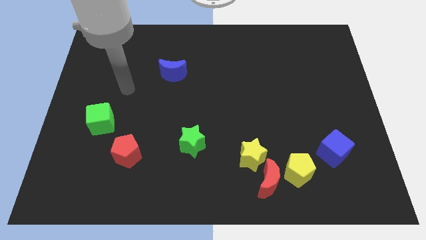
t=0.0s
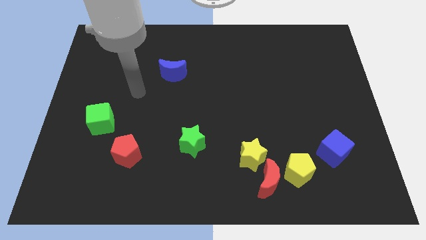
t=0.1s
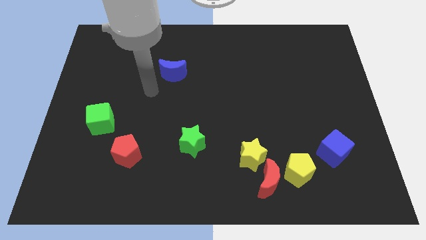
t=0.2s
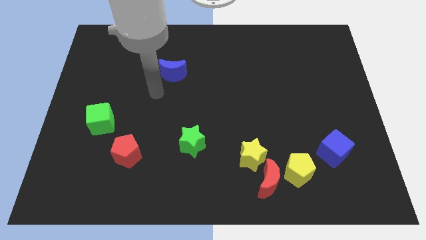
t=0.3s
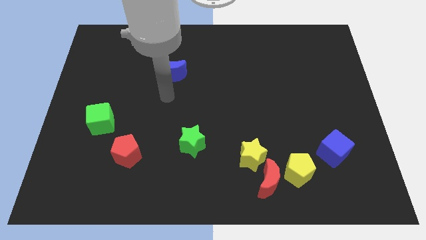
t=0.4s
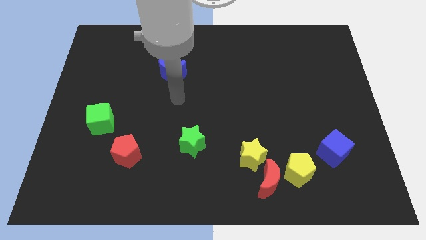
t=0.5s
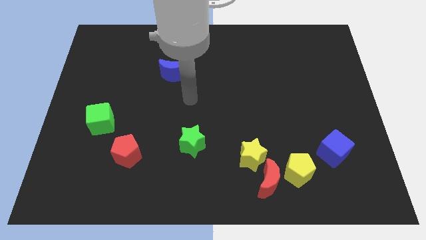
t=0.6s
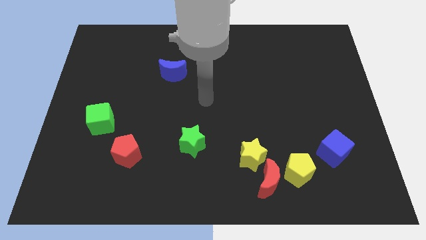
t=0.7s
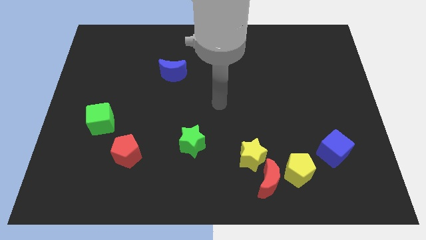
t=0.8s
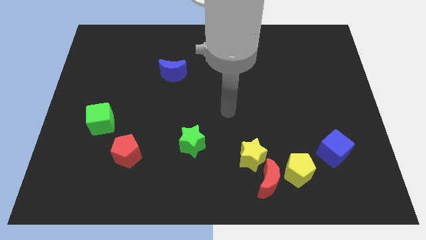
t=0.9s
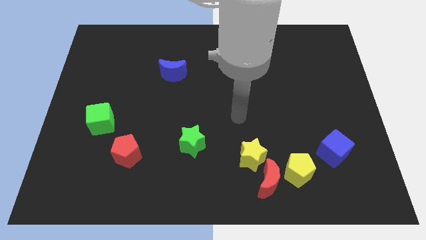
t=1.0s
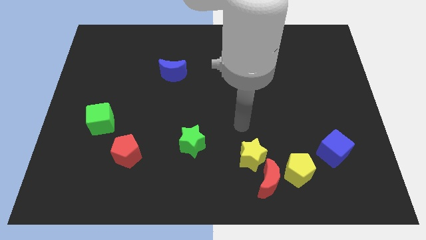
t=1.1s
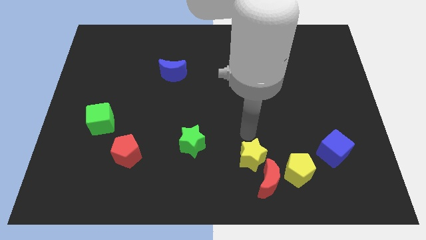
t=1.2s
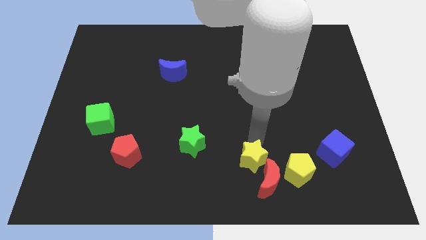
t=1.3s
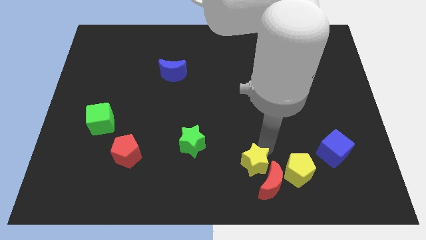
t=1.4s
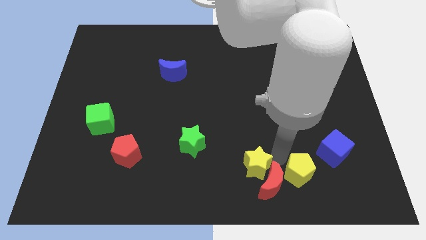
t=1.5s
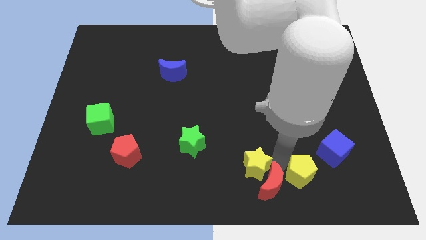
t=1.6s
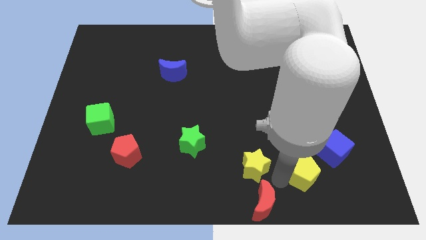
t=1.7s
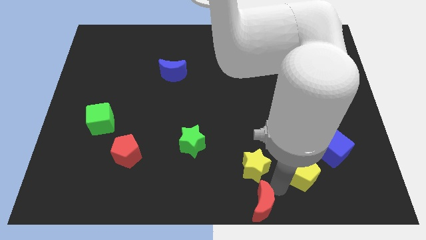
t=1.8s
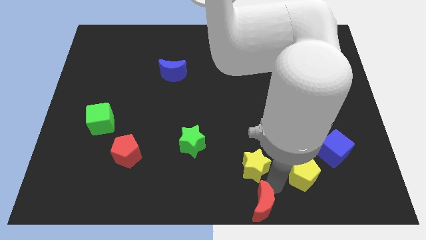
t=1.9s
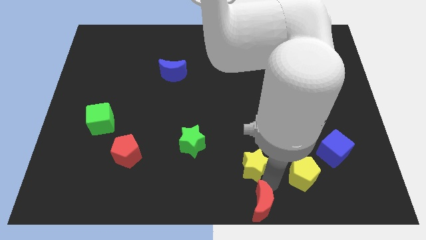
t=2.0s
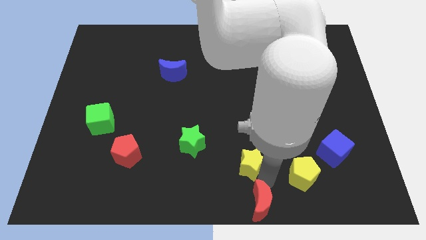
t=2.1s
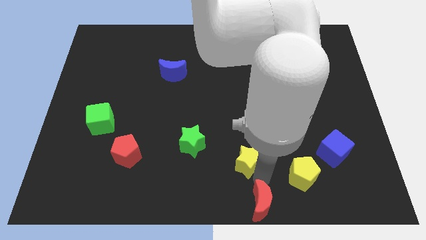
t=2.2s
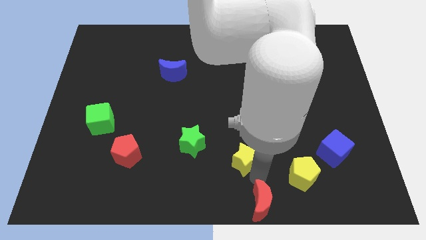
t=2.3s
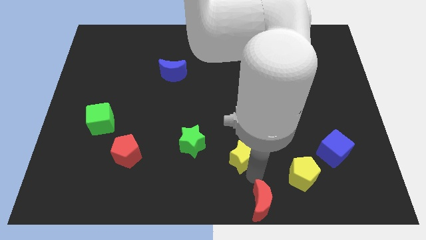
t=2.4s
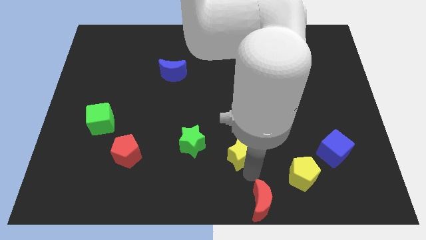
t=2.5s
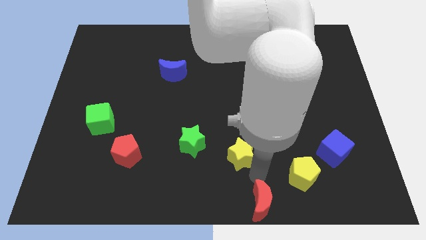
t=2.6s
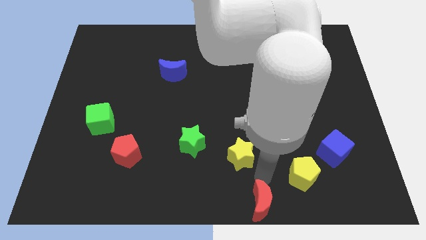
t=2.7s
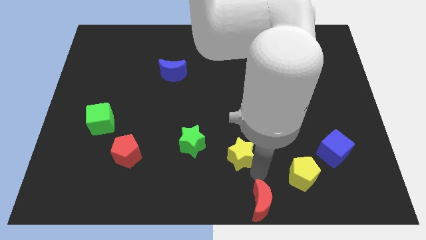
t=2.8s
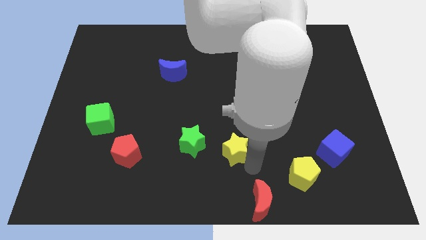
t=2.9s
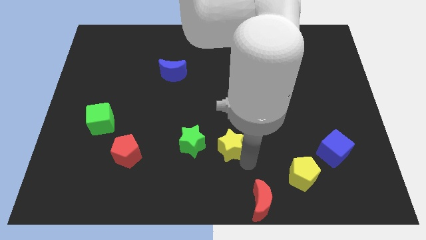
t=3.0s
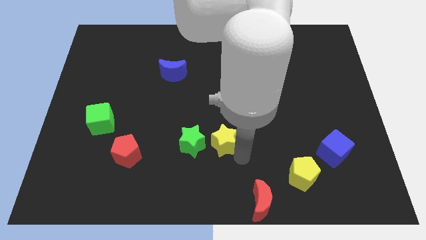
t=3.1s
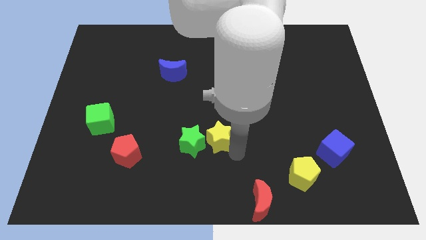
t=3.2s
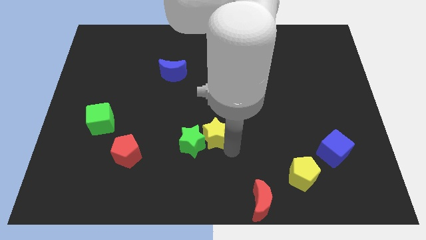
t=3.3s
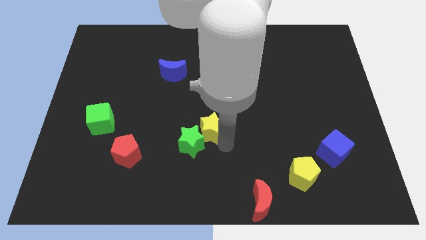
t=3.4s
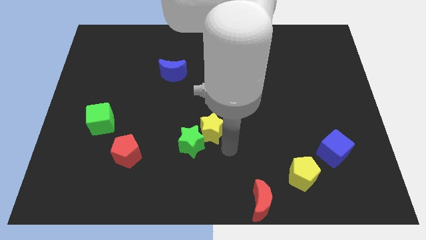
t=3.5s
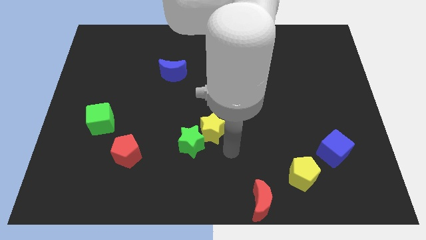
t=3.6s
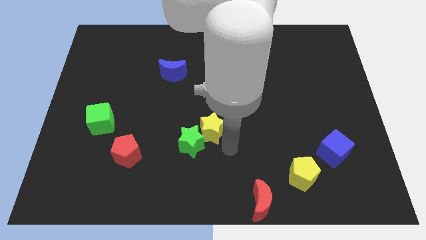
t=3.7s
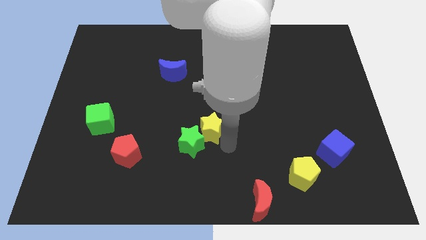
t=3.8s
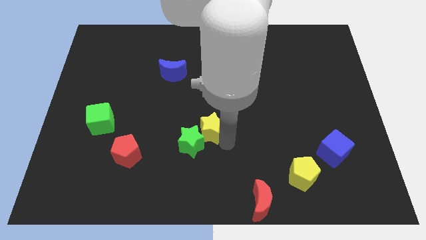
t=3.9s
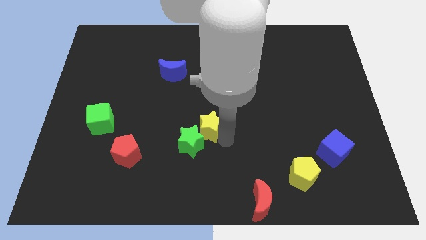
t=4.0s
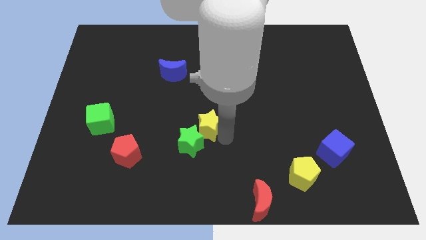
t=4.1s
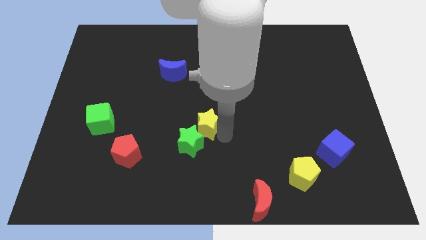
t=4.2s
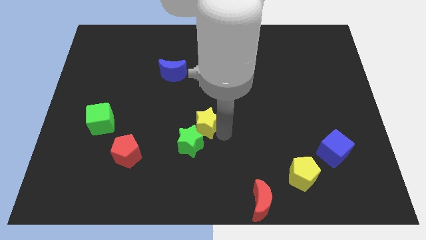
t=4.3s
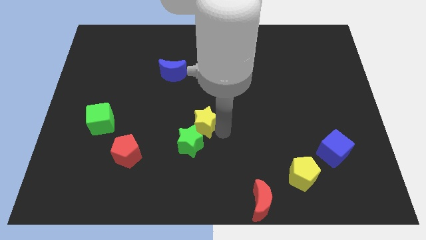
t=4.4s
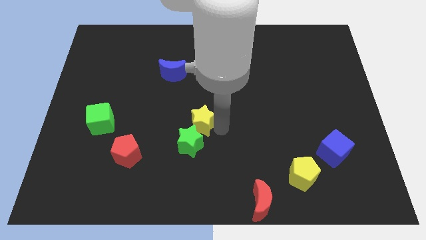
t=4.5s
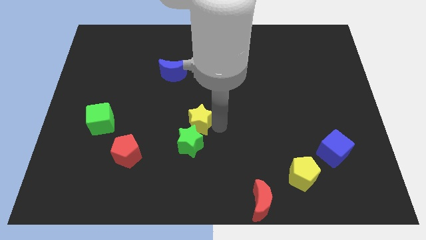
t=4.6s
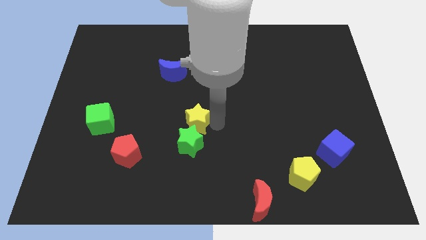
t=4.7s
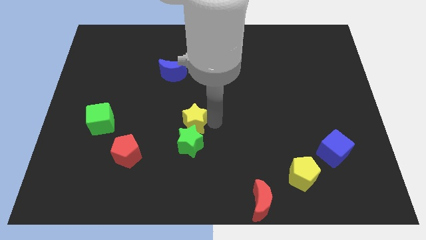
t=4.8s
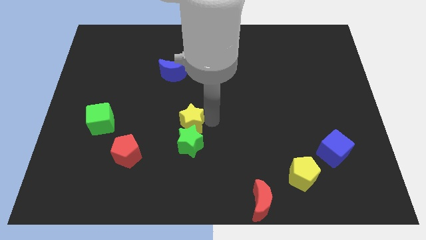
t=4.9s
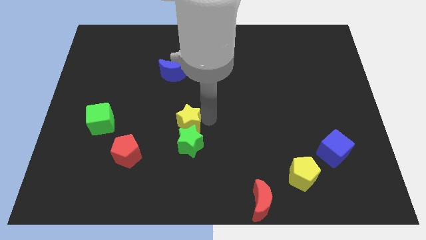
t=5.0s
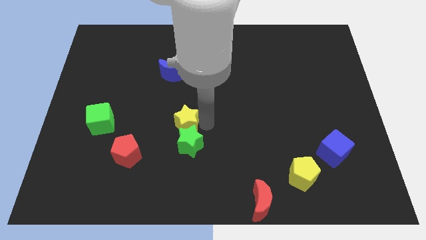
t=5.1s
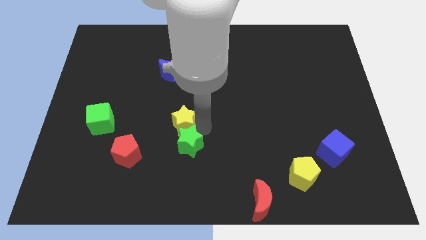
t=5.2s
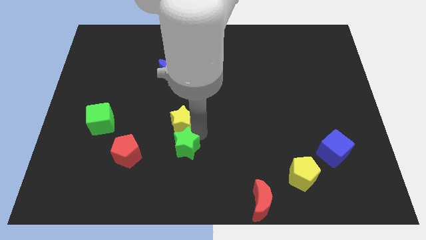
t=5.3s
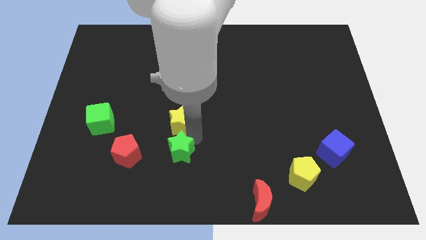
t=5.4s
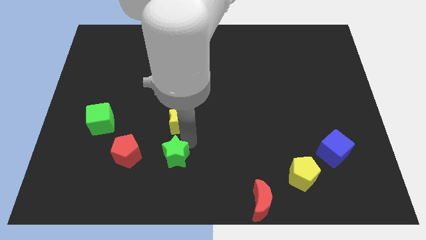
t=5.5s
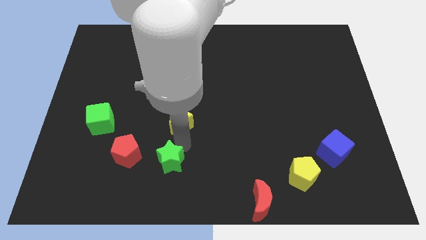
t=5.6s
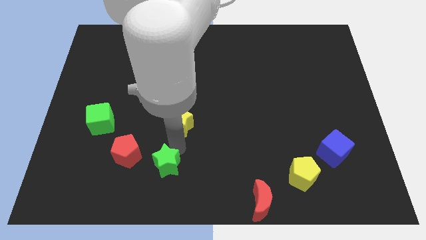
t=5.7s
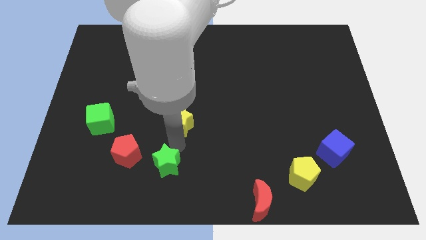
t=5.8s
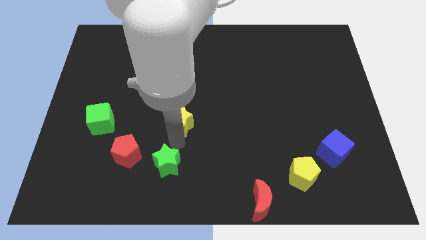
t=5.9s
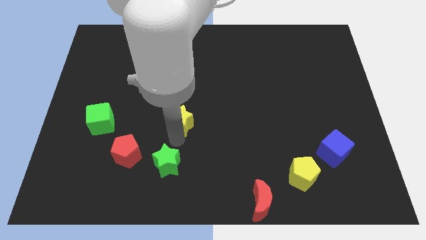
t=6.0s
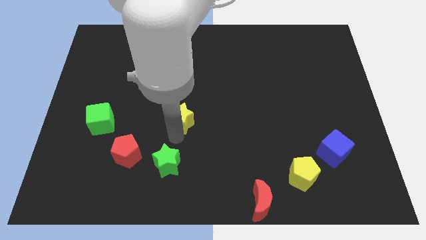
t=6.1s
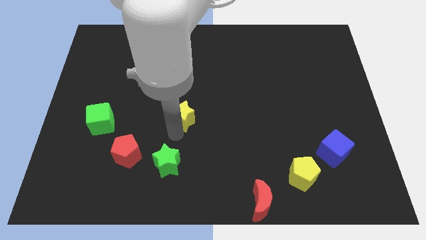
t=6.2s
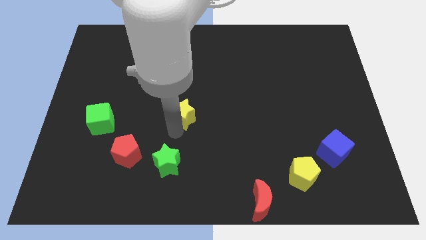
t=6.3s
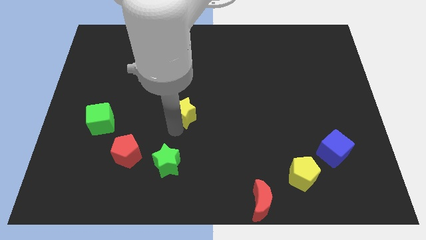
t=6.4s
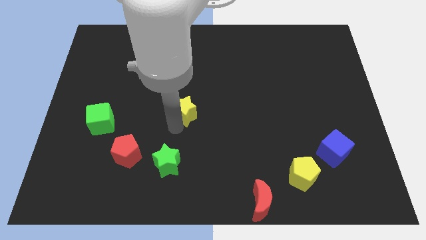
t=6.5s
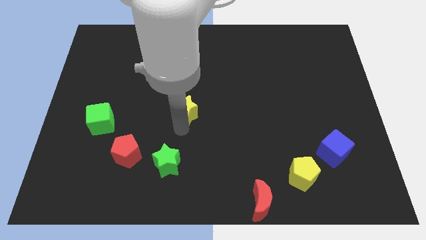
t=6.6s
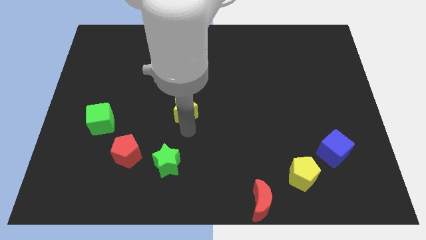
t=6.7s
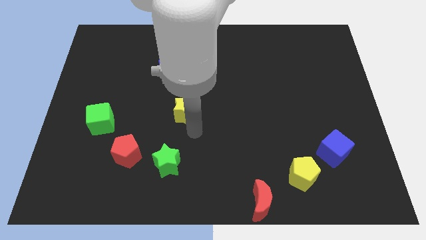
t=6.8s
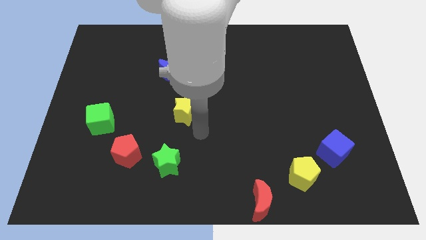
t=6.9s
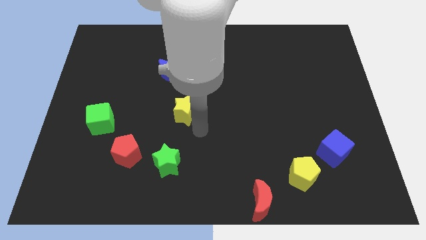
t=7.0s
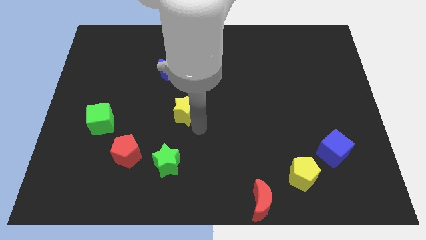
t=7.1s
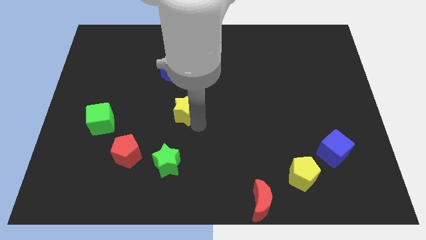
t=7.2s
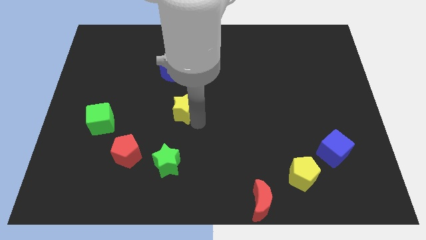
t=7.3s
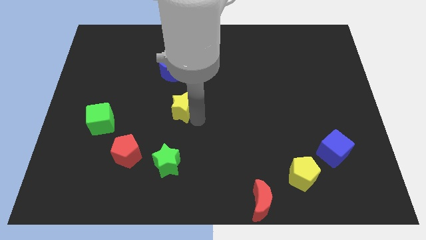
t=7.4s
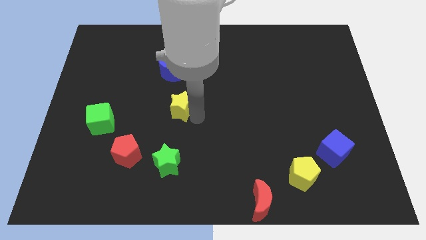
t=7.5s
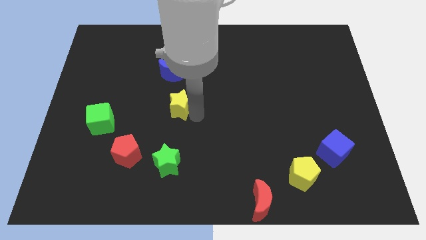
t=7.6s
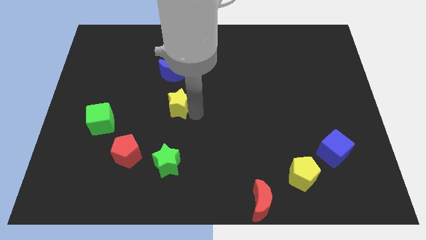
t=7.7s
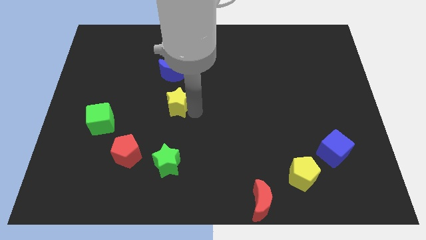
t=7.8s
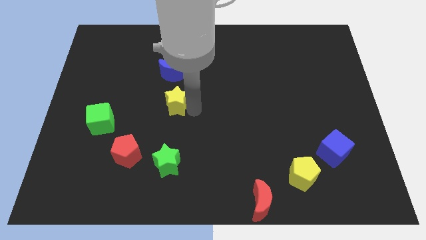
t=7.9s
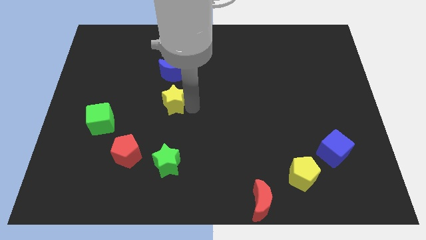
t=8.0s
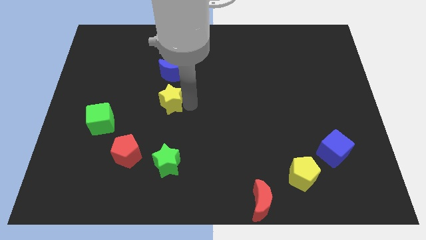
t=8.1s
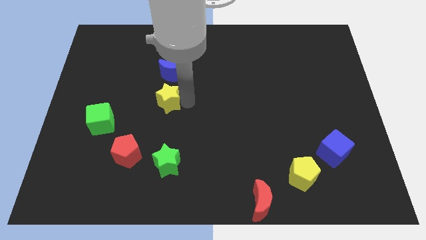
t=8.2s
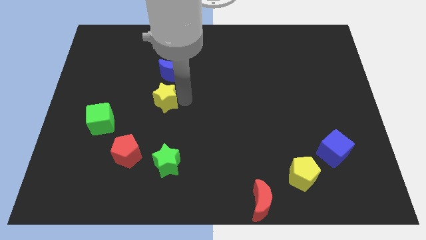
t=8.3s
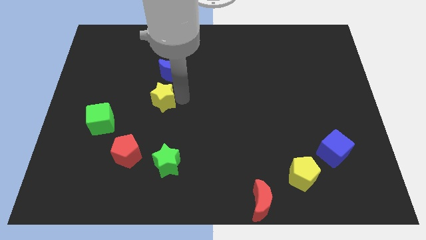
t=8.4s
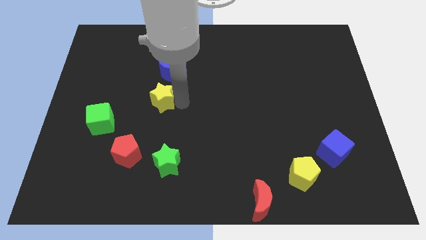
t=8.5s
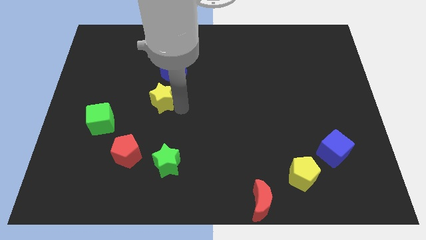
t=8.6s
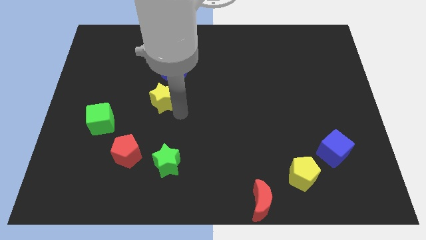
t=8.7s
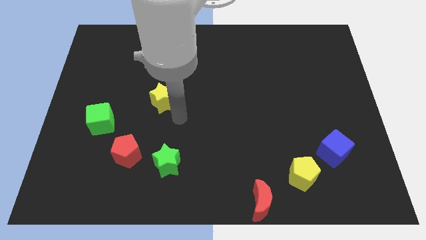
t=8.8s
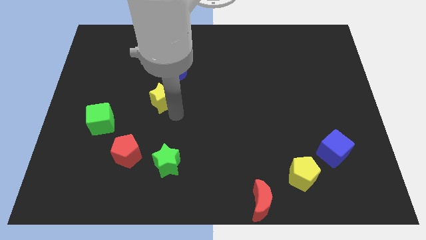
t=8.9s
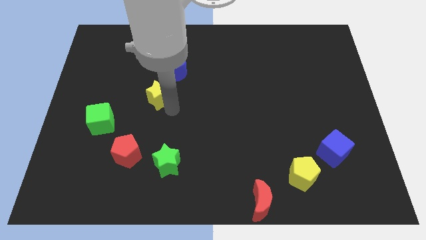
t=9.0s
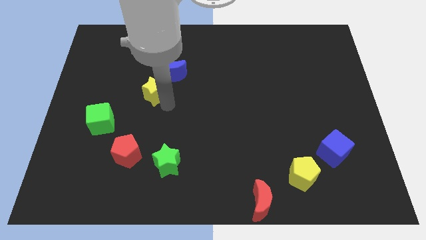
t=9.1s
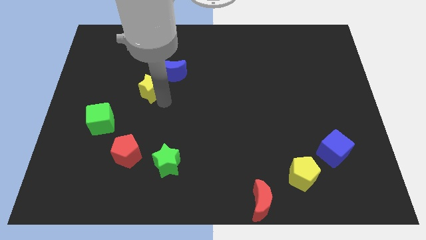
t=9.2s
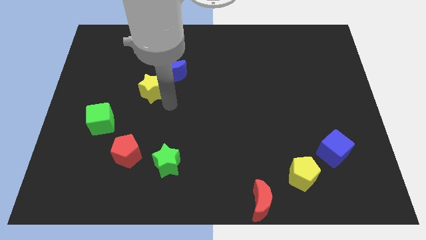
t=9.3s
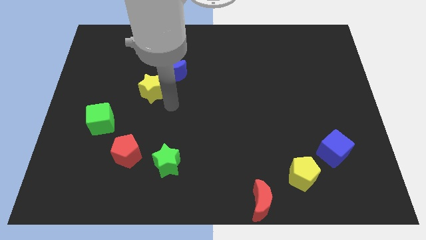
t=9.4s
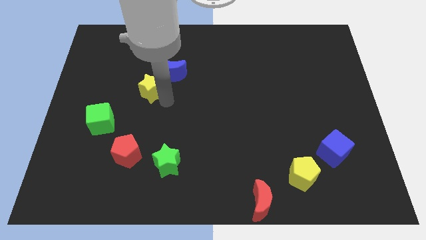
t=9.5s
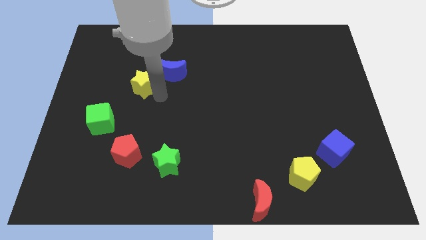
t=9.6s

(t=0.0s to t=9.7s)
put the yellow star to the left of the blue moon
